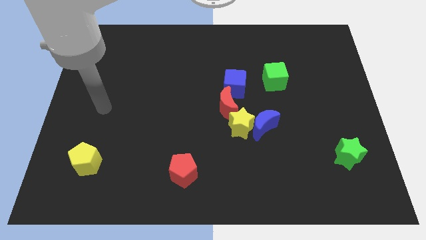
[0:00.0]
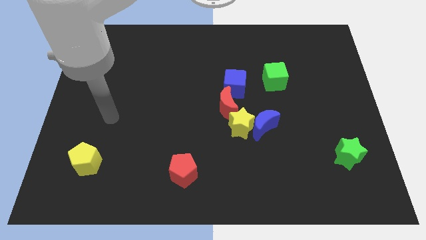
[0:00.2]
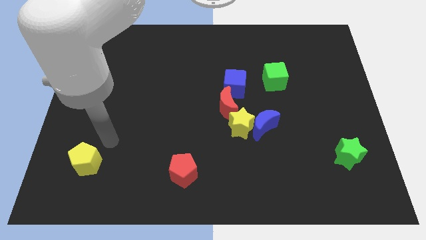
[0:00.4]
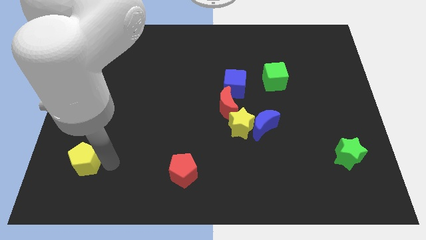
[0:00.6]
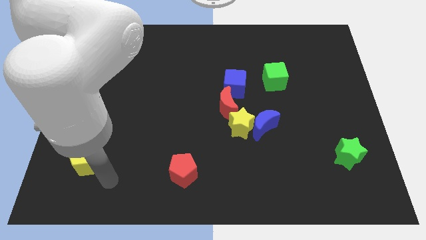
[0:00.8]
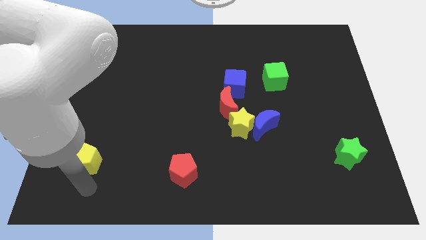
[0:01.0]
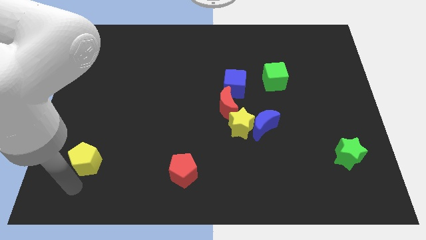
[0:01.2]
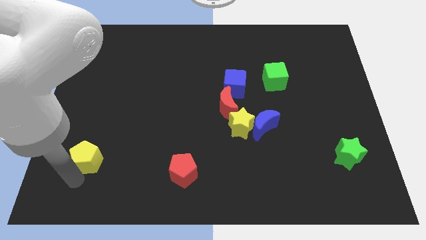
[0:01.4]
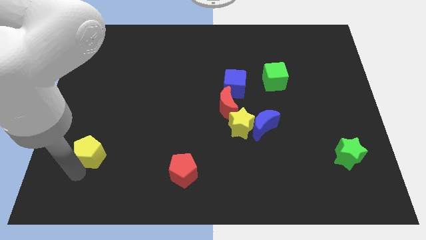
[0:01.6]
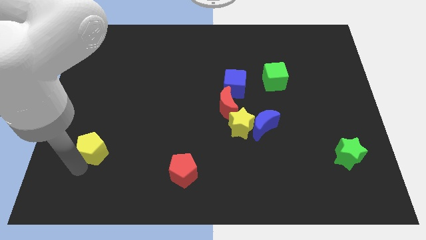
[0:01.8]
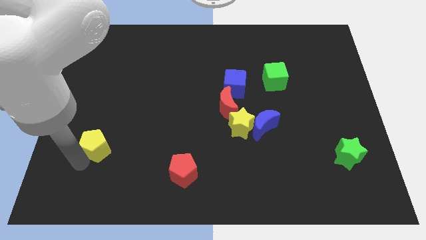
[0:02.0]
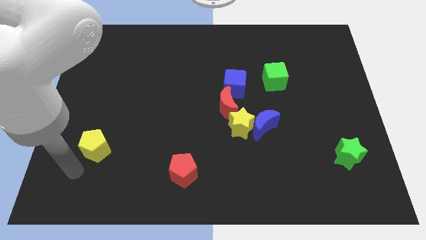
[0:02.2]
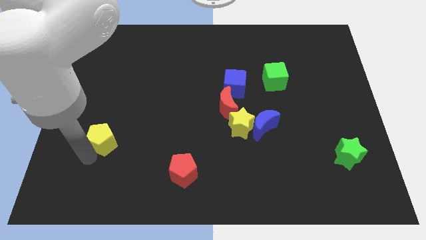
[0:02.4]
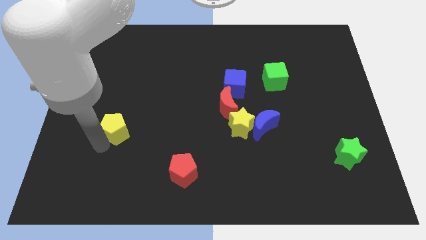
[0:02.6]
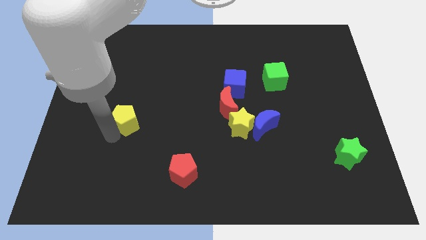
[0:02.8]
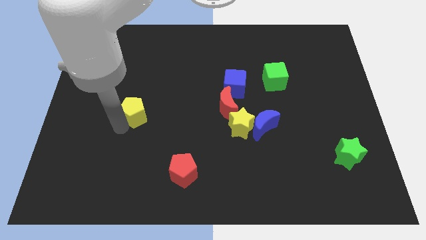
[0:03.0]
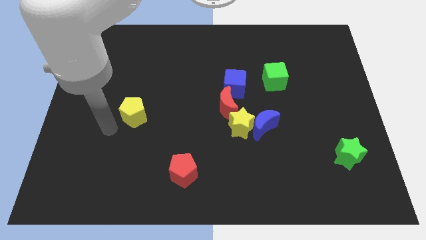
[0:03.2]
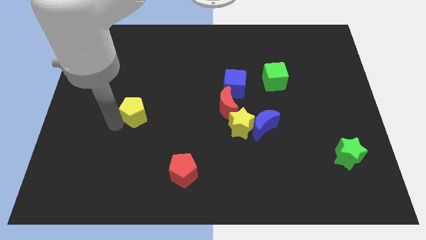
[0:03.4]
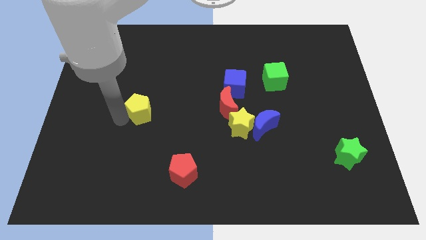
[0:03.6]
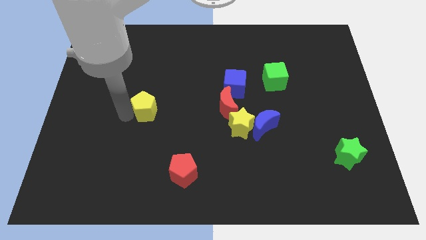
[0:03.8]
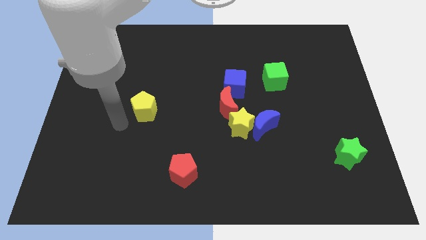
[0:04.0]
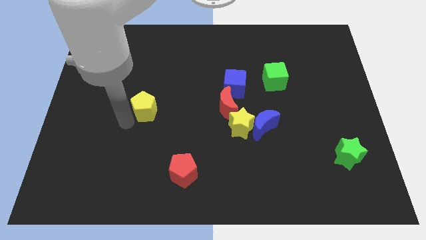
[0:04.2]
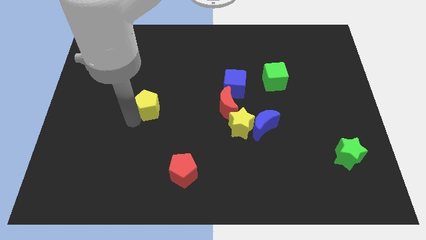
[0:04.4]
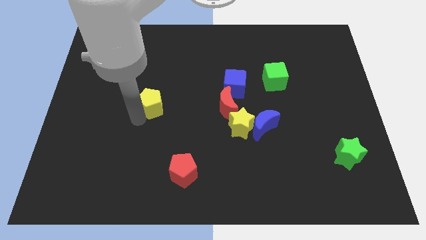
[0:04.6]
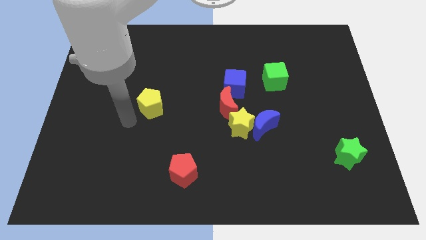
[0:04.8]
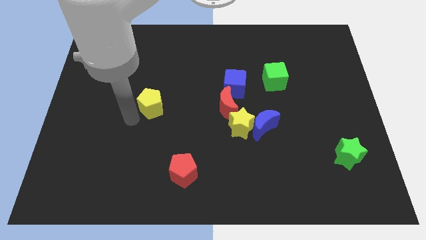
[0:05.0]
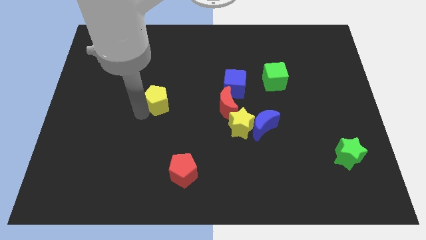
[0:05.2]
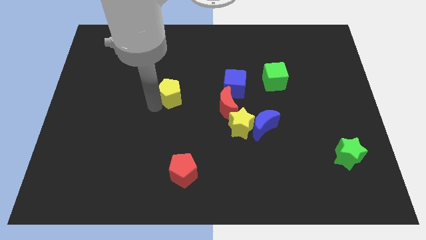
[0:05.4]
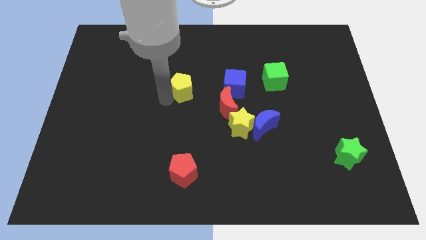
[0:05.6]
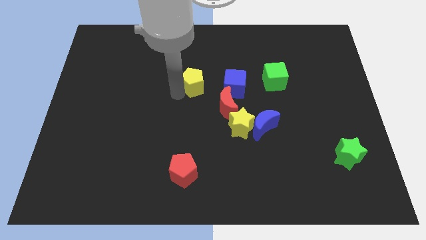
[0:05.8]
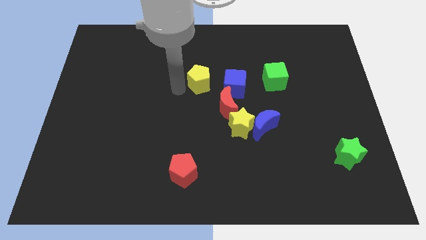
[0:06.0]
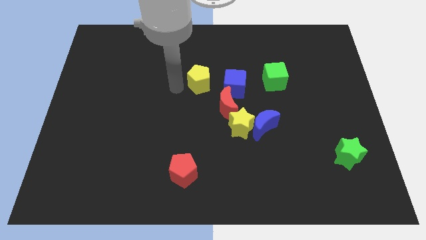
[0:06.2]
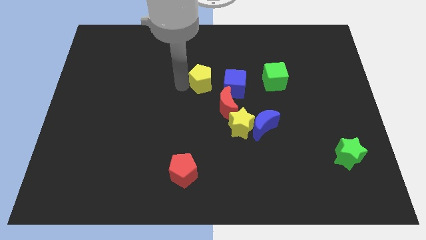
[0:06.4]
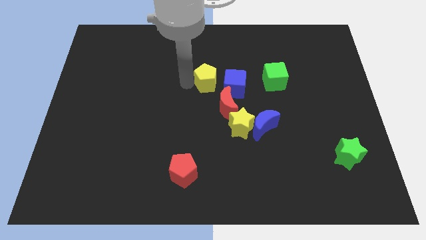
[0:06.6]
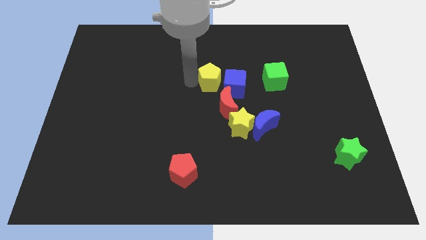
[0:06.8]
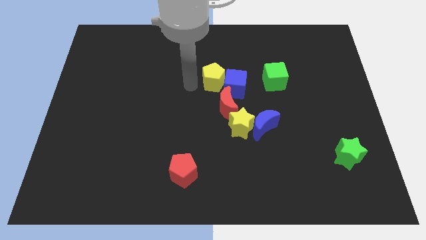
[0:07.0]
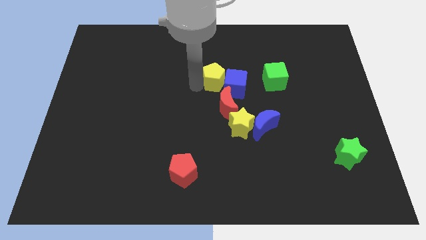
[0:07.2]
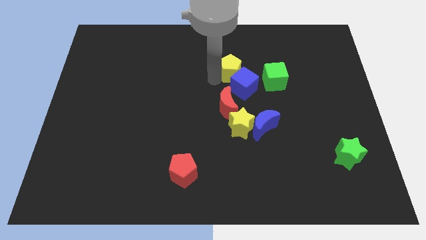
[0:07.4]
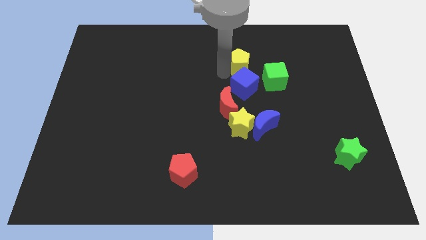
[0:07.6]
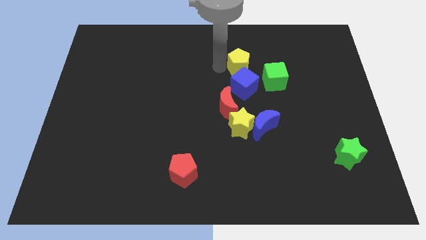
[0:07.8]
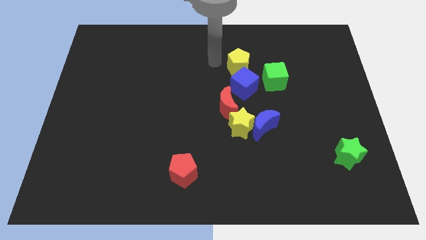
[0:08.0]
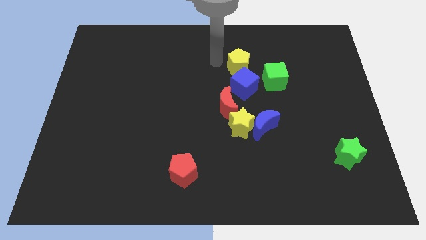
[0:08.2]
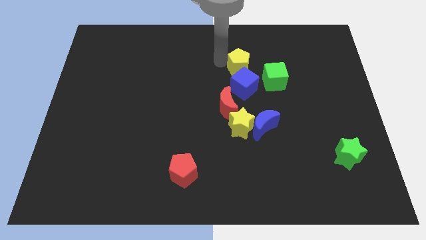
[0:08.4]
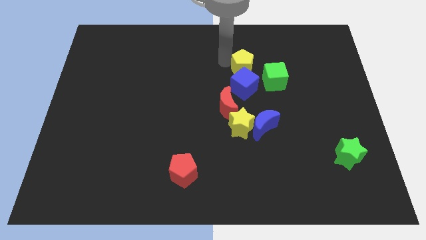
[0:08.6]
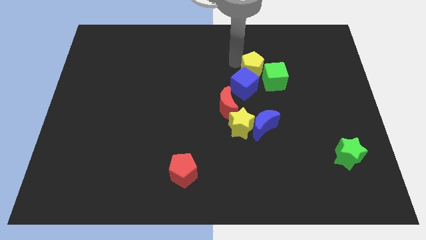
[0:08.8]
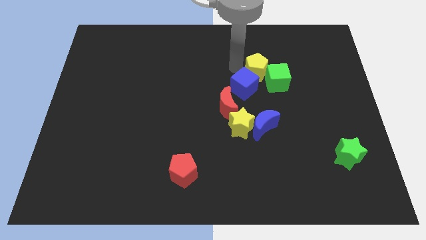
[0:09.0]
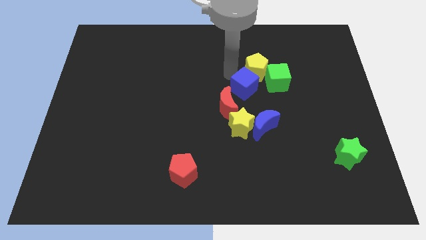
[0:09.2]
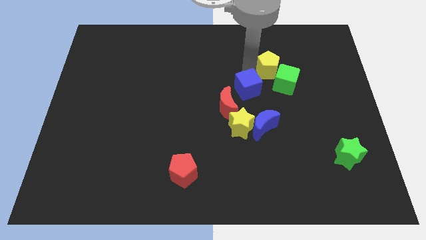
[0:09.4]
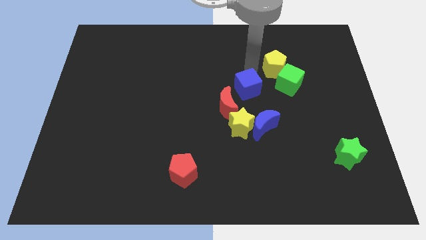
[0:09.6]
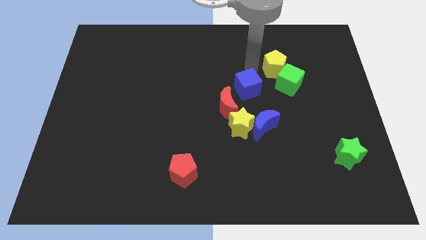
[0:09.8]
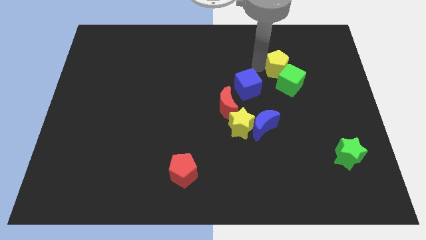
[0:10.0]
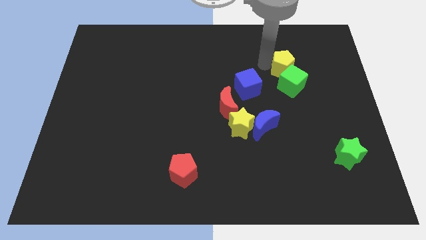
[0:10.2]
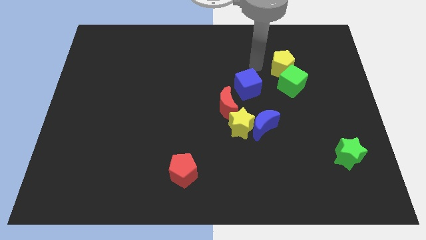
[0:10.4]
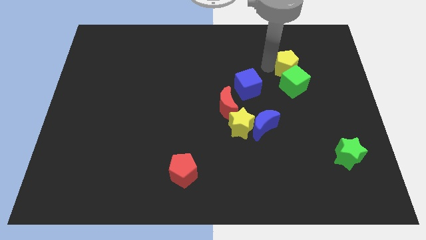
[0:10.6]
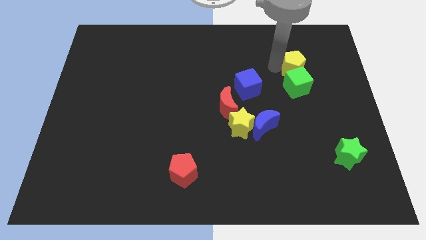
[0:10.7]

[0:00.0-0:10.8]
slide the yellow pentagon to the top right side of the green cube

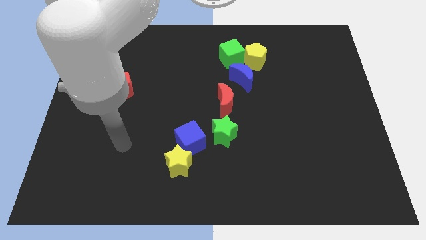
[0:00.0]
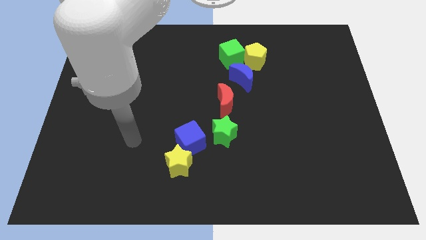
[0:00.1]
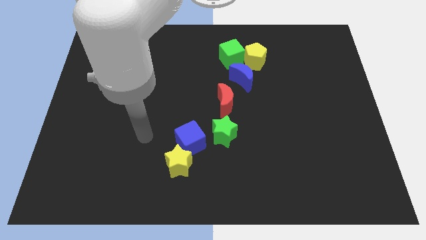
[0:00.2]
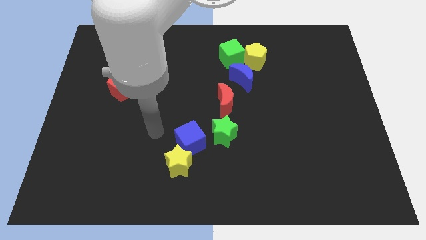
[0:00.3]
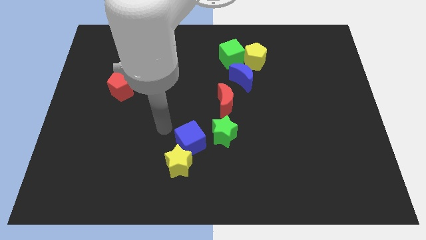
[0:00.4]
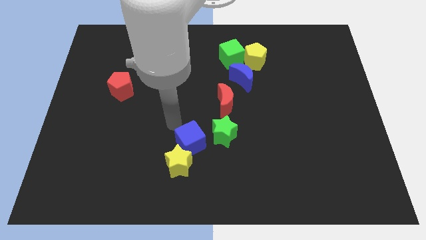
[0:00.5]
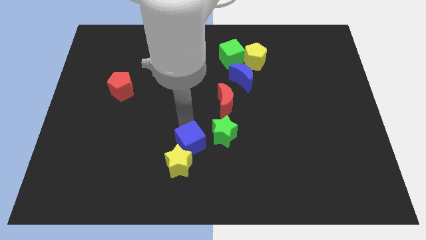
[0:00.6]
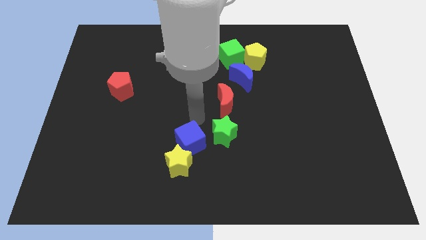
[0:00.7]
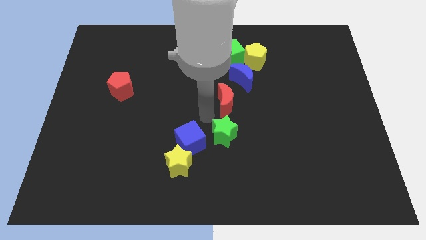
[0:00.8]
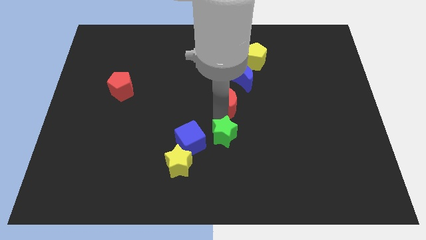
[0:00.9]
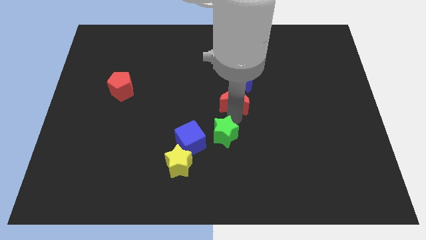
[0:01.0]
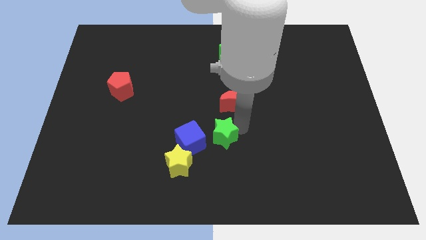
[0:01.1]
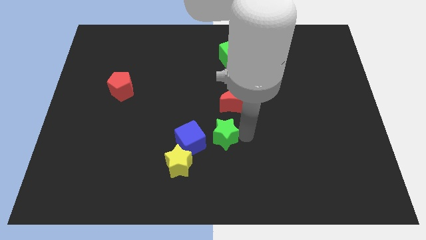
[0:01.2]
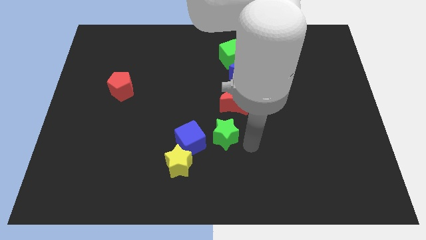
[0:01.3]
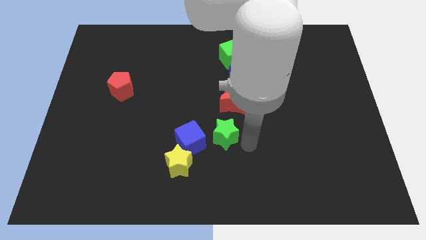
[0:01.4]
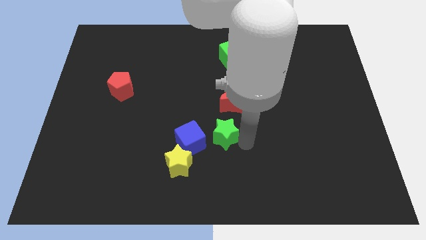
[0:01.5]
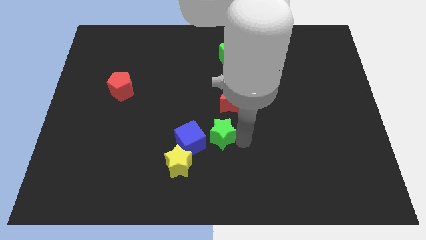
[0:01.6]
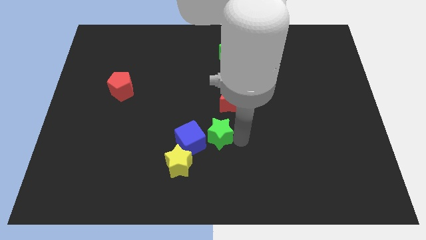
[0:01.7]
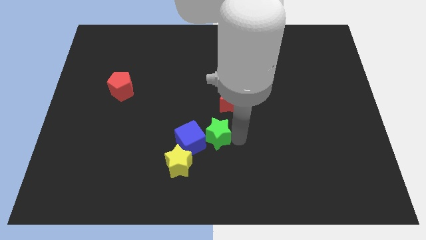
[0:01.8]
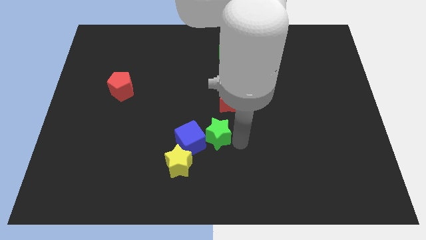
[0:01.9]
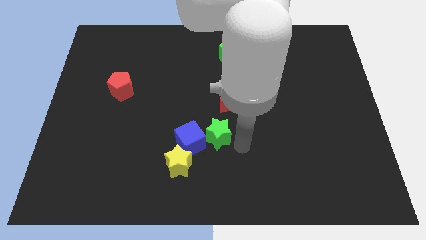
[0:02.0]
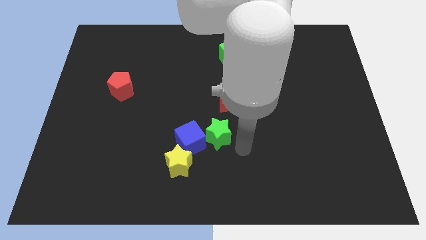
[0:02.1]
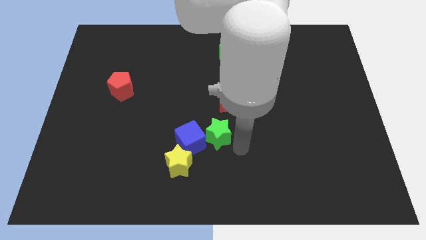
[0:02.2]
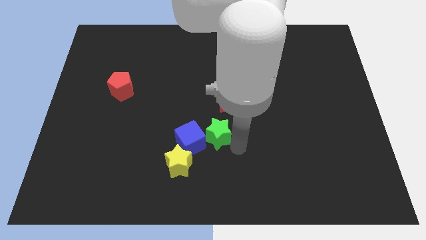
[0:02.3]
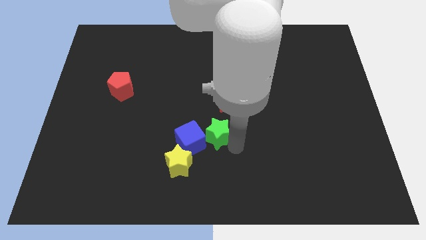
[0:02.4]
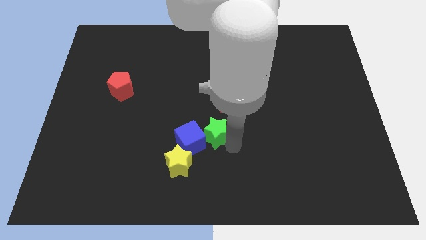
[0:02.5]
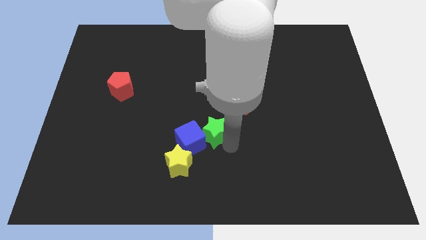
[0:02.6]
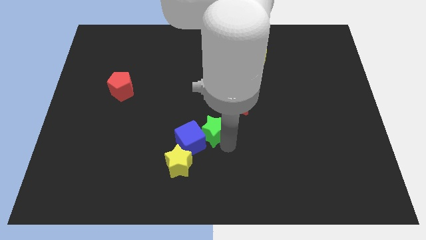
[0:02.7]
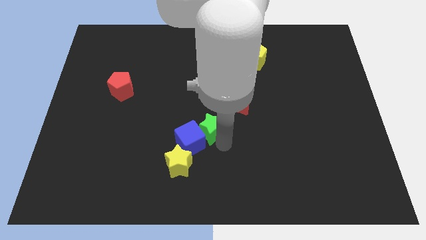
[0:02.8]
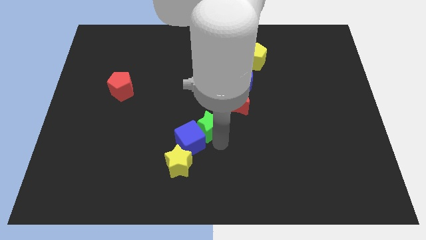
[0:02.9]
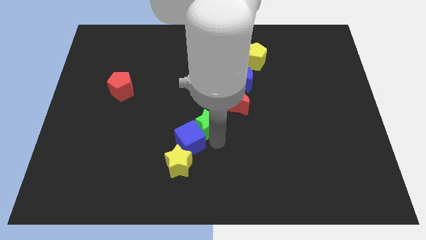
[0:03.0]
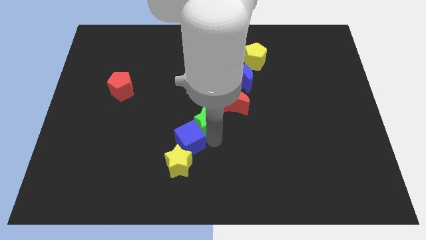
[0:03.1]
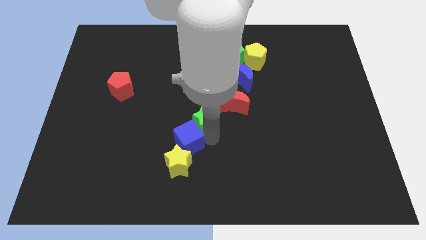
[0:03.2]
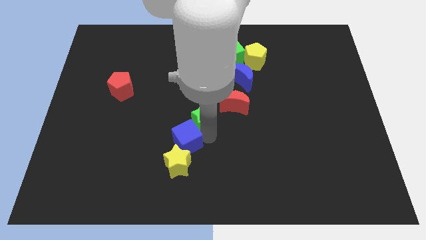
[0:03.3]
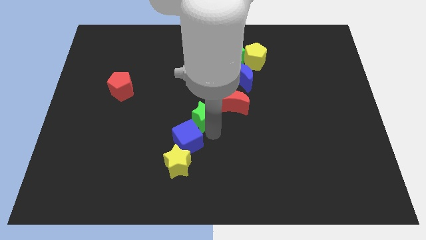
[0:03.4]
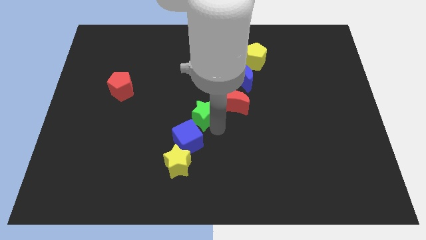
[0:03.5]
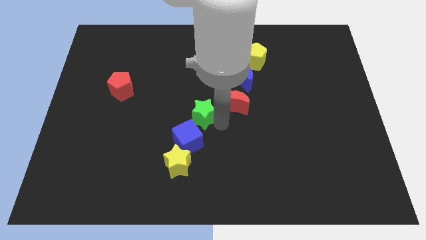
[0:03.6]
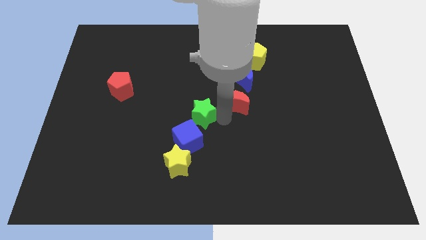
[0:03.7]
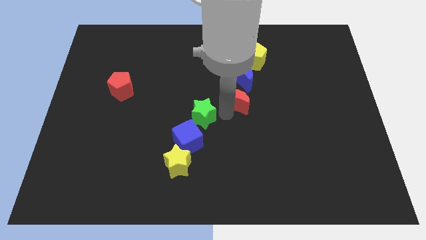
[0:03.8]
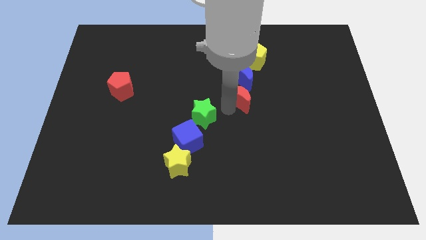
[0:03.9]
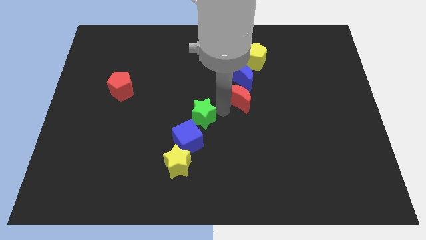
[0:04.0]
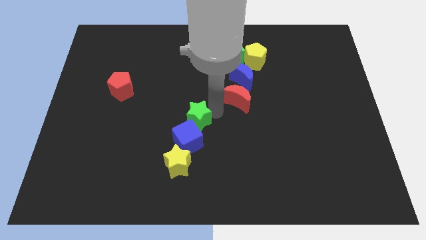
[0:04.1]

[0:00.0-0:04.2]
slide the green star to the top side of the yellow star
